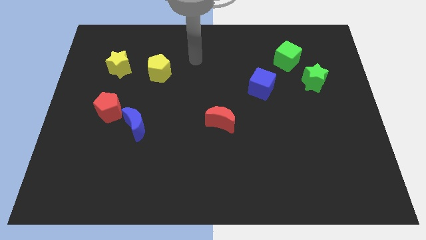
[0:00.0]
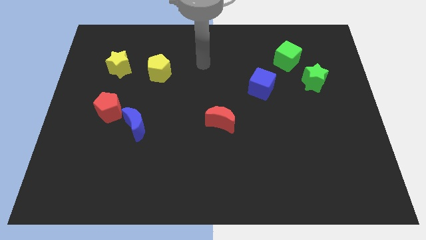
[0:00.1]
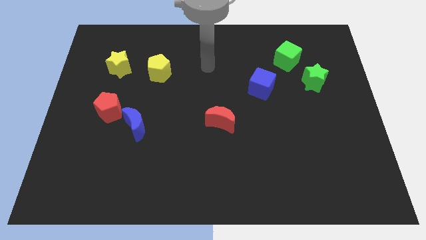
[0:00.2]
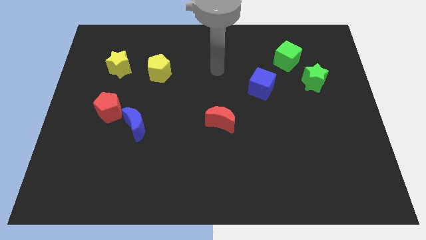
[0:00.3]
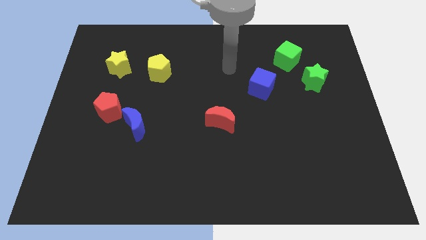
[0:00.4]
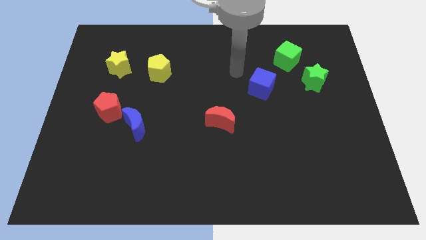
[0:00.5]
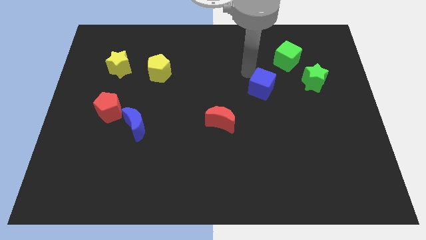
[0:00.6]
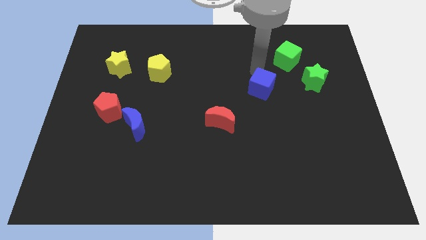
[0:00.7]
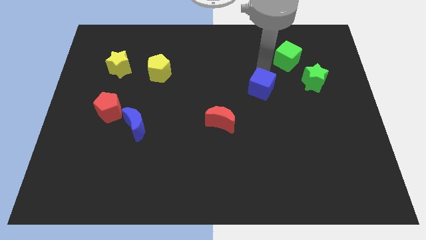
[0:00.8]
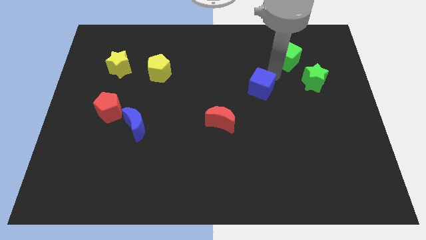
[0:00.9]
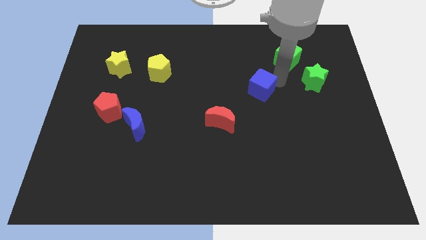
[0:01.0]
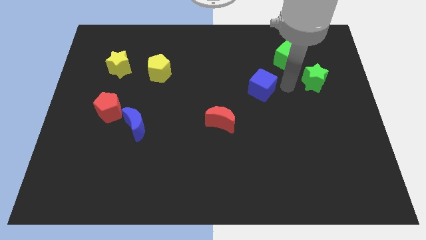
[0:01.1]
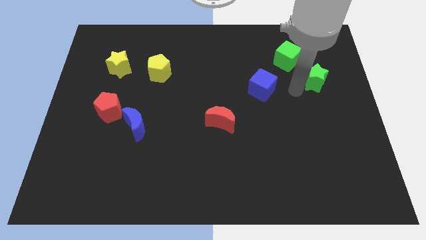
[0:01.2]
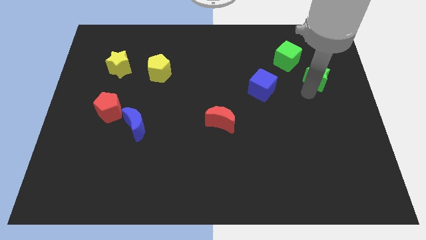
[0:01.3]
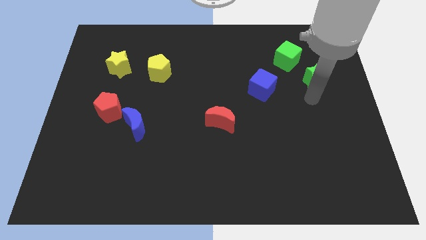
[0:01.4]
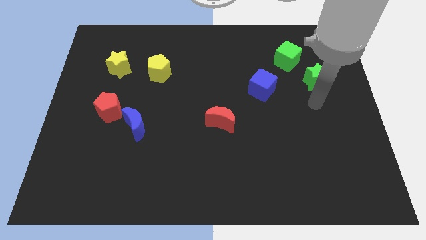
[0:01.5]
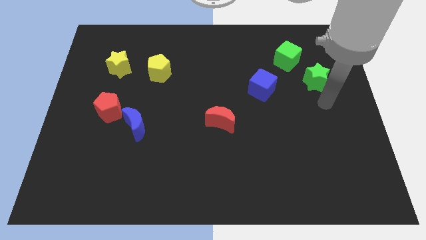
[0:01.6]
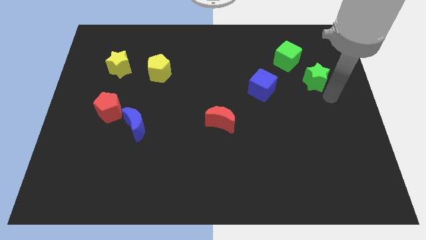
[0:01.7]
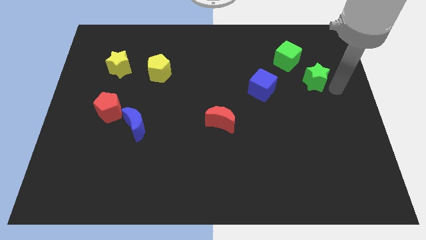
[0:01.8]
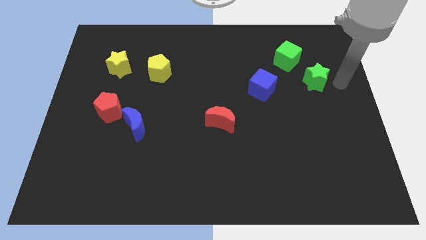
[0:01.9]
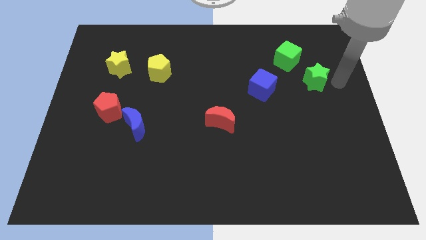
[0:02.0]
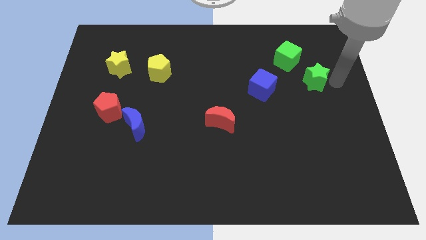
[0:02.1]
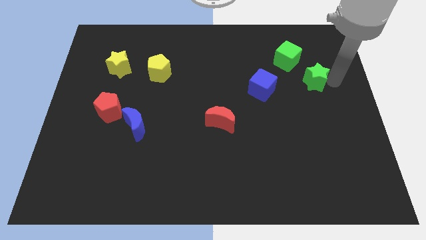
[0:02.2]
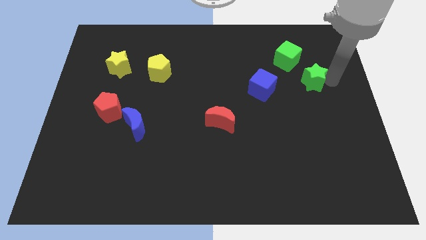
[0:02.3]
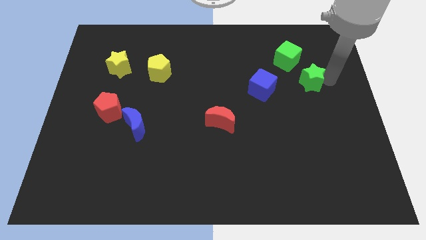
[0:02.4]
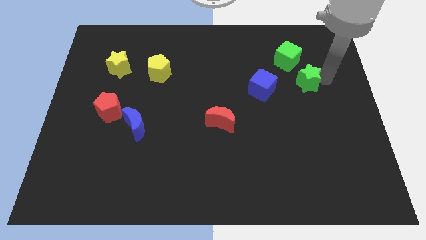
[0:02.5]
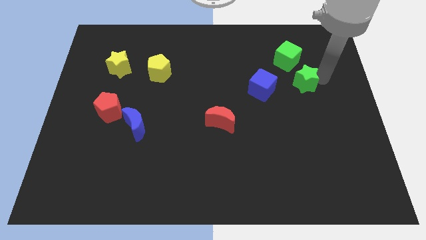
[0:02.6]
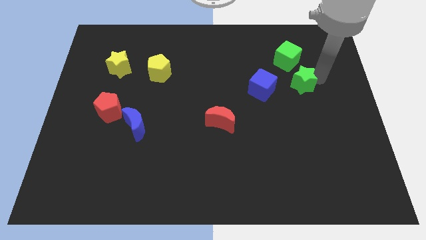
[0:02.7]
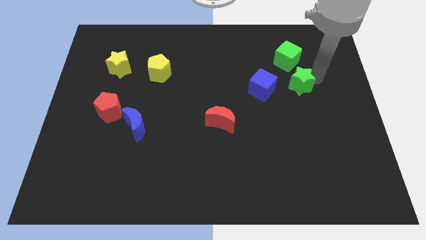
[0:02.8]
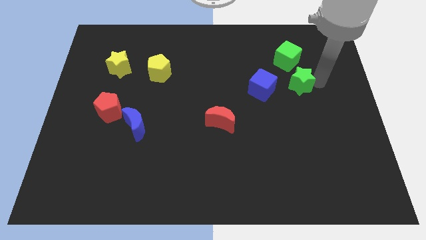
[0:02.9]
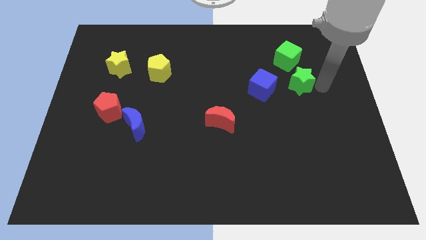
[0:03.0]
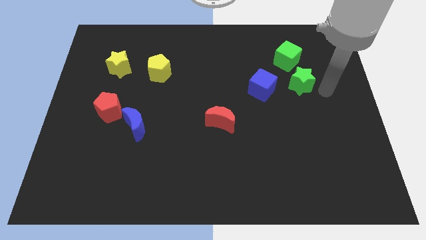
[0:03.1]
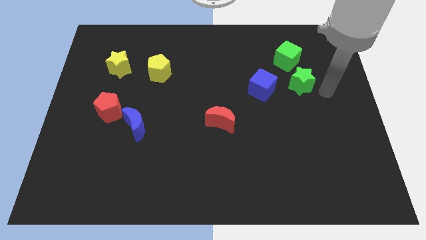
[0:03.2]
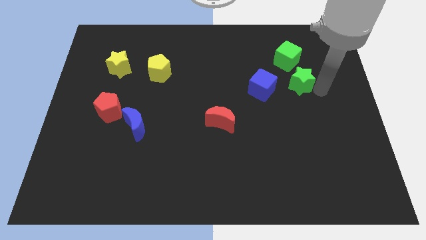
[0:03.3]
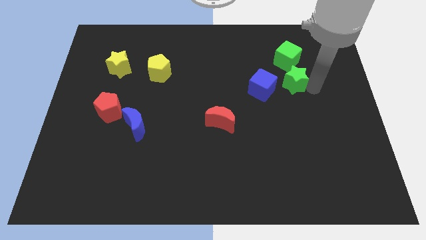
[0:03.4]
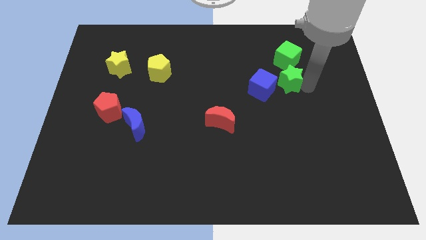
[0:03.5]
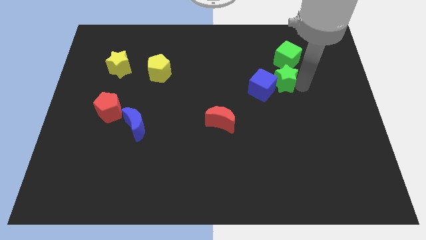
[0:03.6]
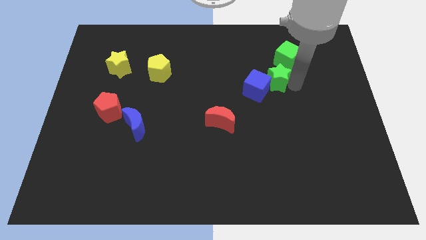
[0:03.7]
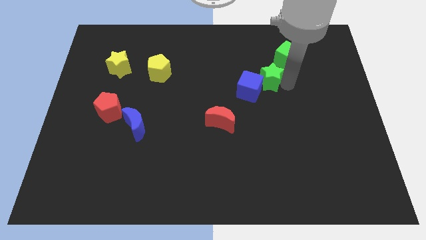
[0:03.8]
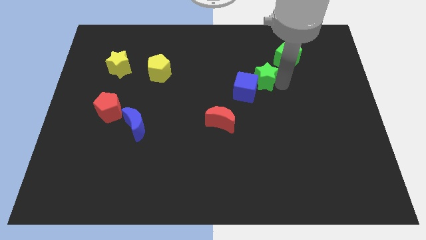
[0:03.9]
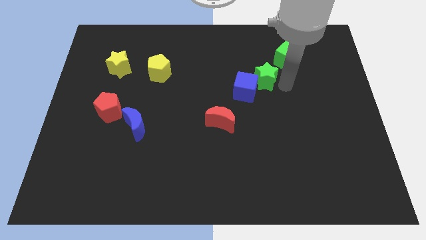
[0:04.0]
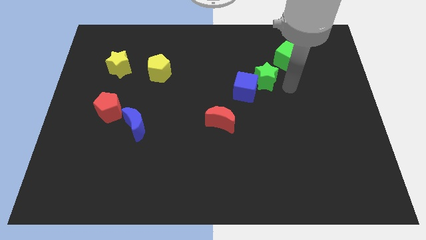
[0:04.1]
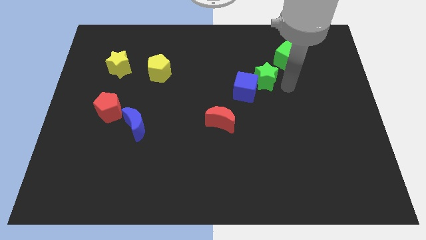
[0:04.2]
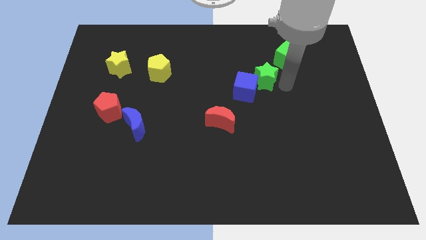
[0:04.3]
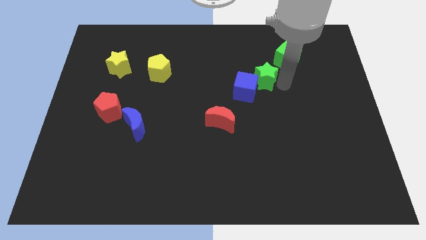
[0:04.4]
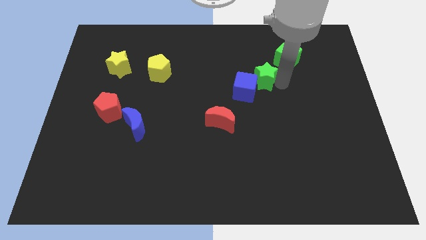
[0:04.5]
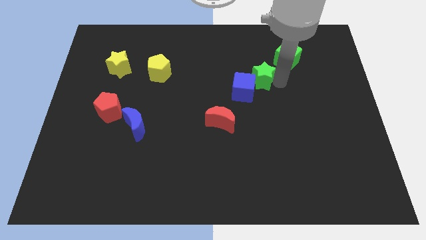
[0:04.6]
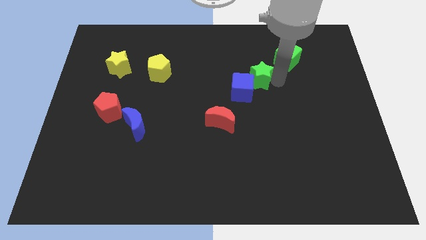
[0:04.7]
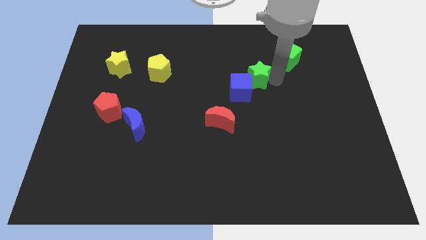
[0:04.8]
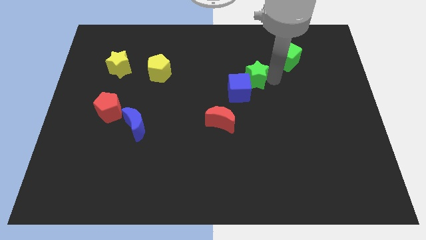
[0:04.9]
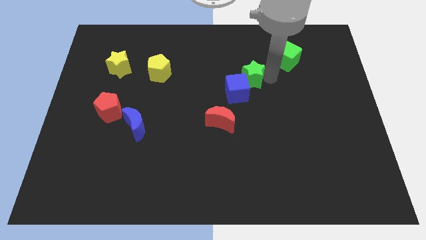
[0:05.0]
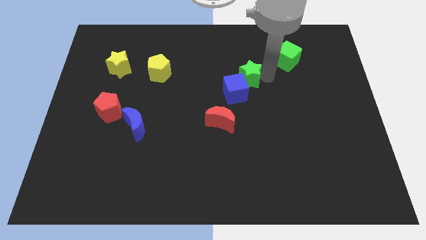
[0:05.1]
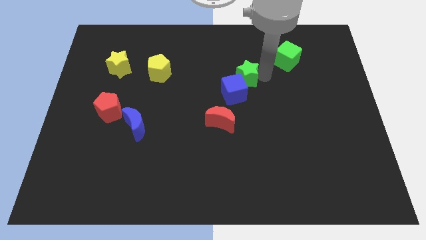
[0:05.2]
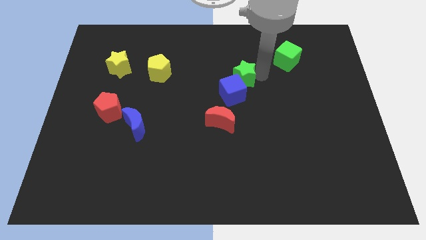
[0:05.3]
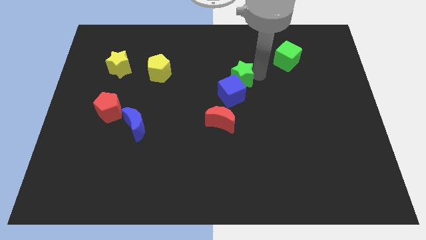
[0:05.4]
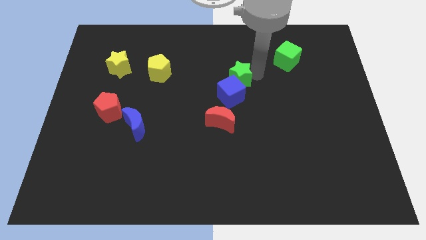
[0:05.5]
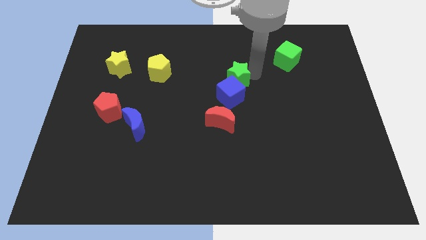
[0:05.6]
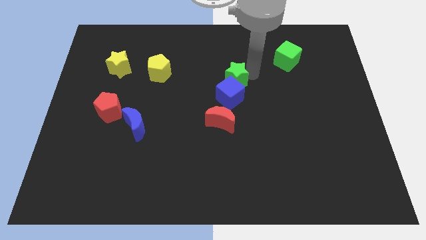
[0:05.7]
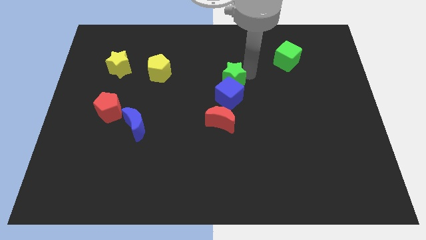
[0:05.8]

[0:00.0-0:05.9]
move the green star left

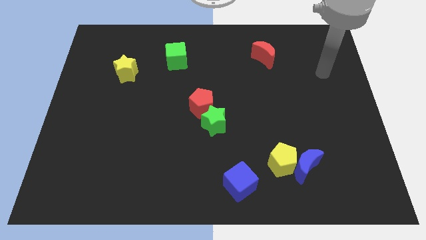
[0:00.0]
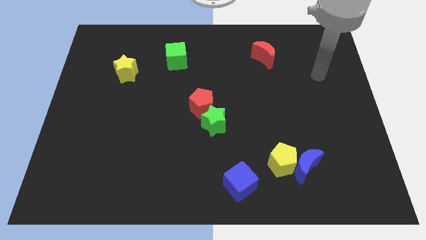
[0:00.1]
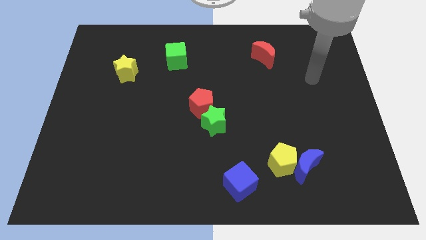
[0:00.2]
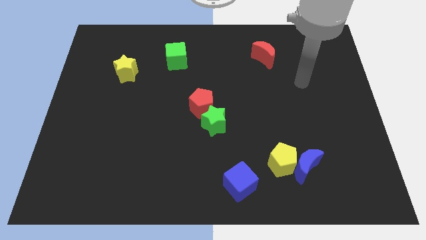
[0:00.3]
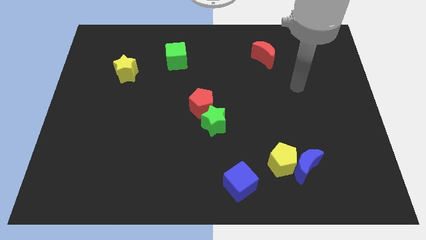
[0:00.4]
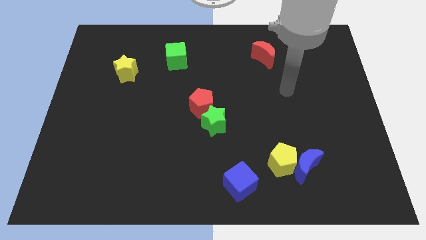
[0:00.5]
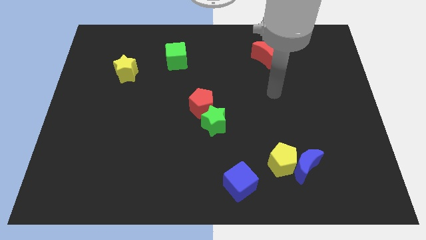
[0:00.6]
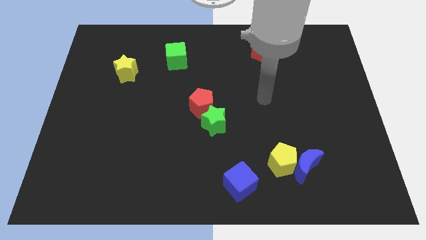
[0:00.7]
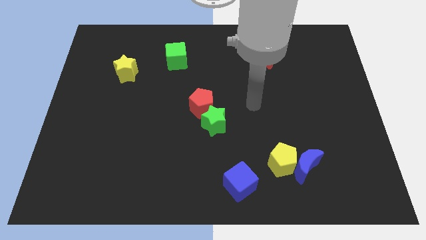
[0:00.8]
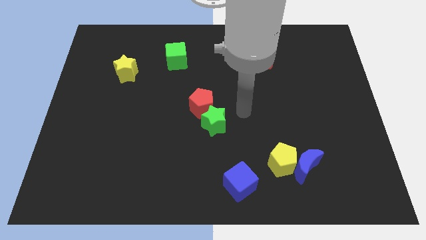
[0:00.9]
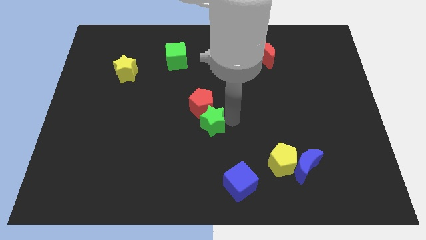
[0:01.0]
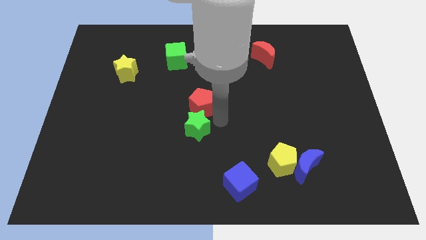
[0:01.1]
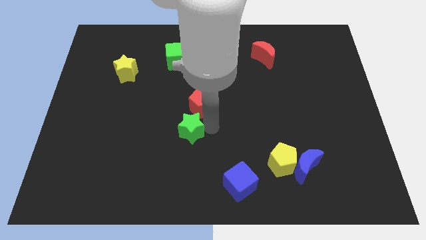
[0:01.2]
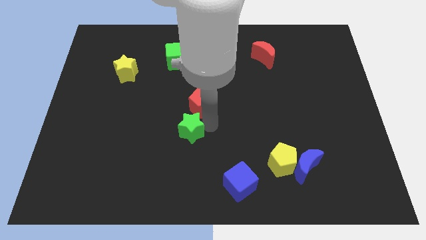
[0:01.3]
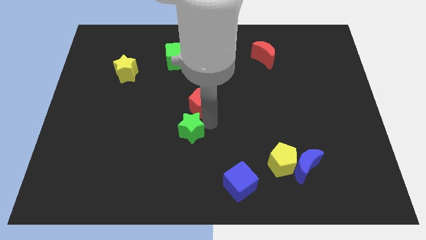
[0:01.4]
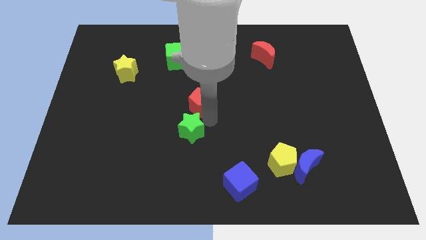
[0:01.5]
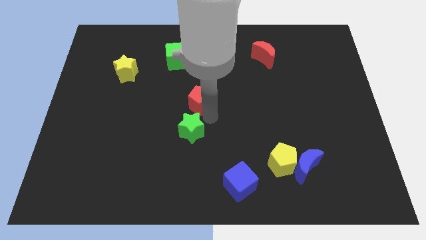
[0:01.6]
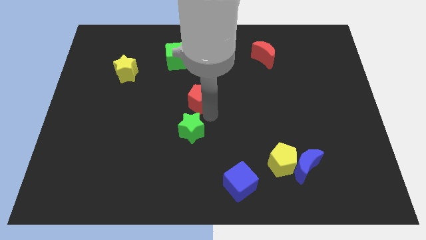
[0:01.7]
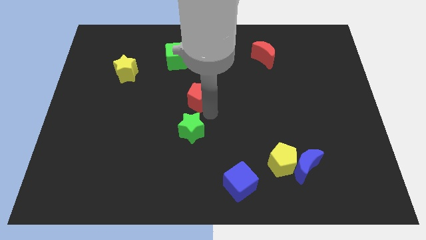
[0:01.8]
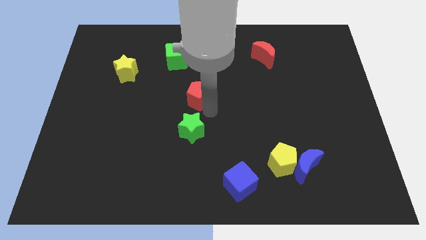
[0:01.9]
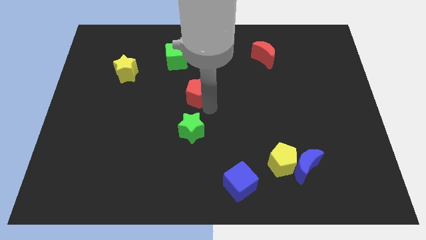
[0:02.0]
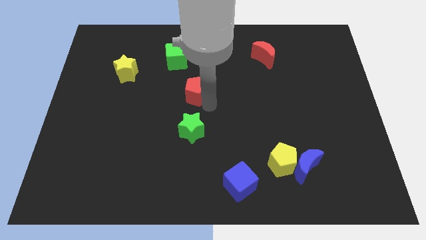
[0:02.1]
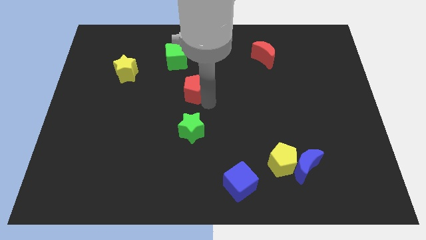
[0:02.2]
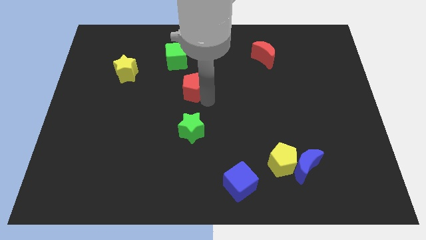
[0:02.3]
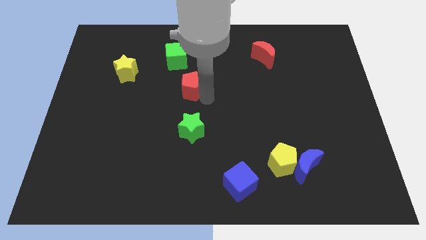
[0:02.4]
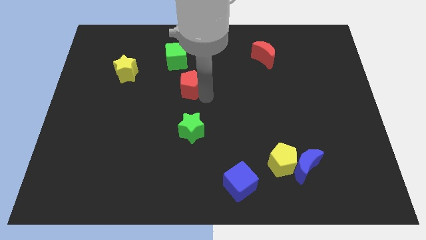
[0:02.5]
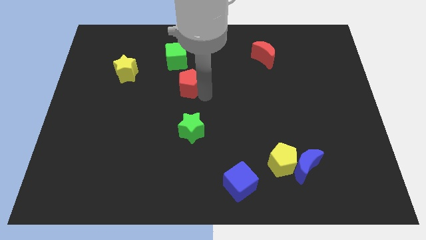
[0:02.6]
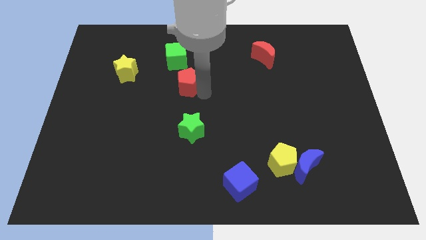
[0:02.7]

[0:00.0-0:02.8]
slightly push the red pentagon diagonally upwards and left
